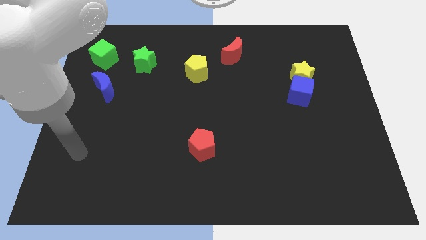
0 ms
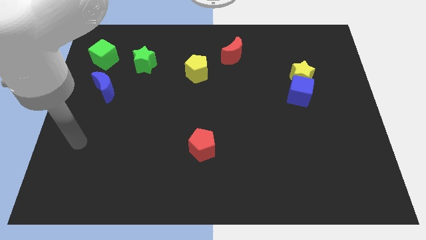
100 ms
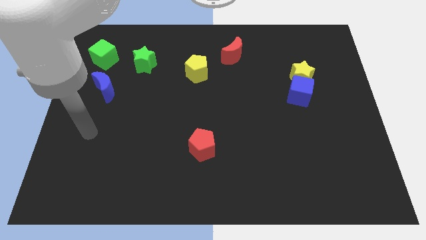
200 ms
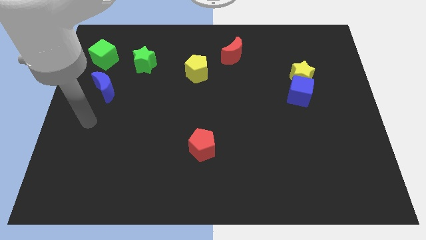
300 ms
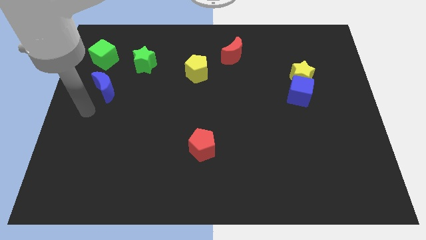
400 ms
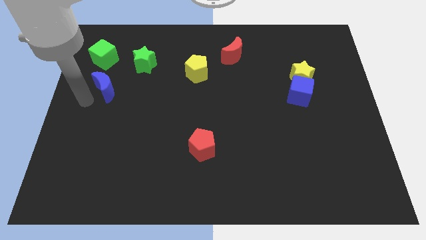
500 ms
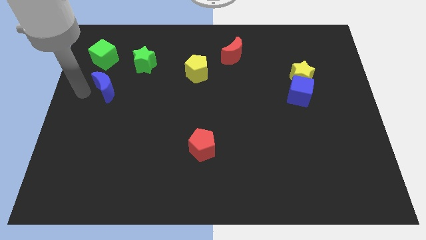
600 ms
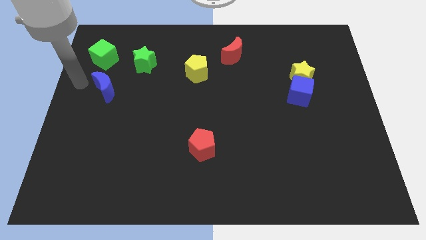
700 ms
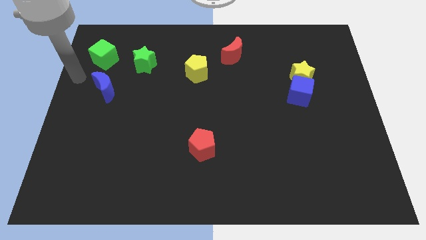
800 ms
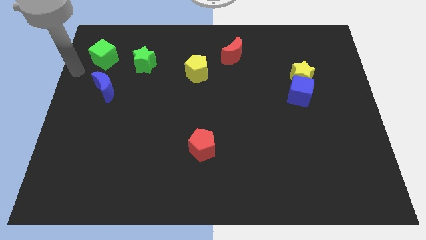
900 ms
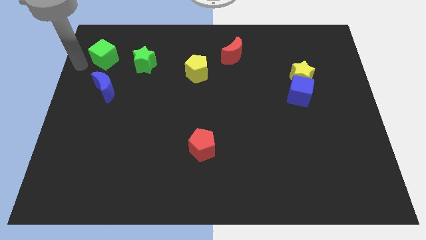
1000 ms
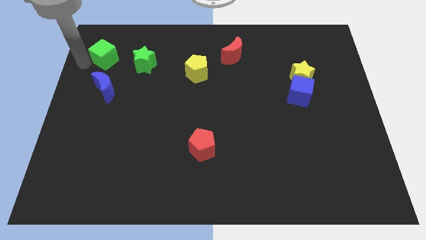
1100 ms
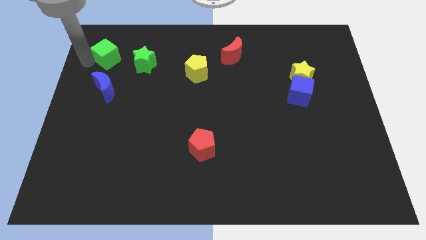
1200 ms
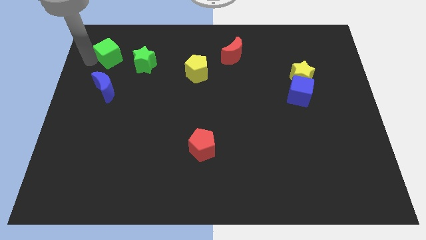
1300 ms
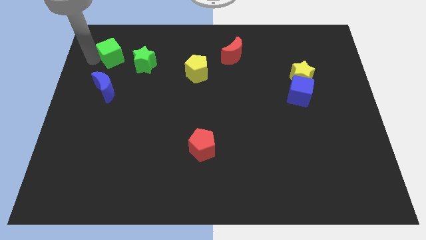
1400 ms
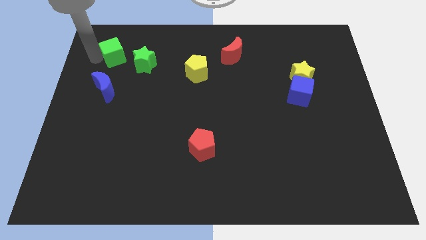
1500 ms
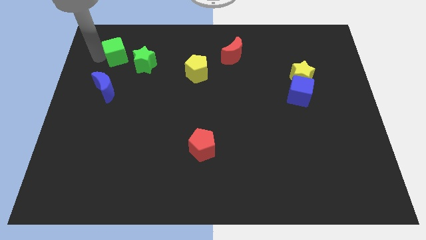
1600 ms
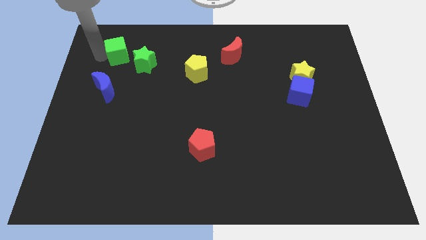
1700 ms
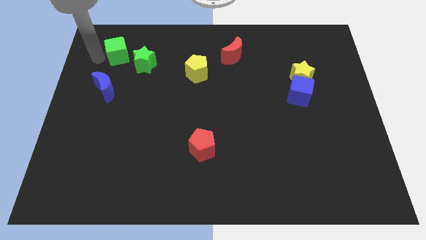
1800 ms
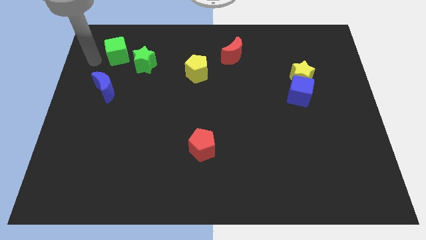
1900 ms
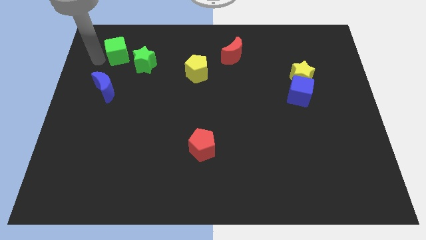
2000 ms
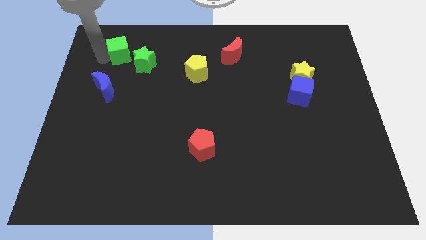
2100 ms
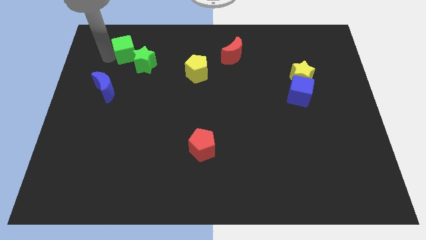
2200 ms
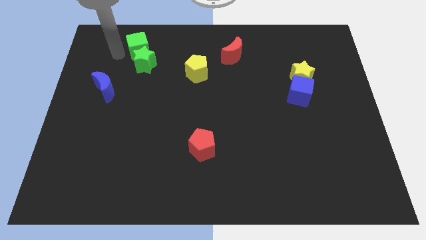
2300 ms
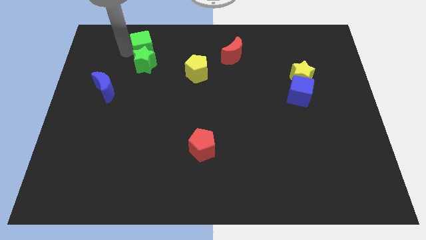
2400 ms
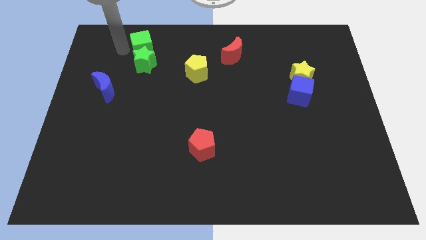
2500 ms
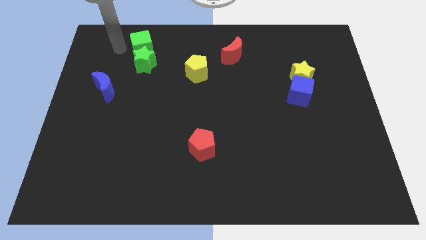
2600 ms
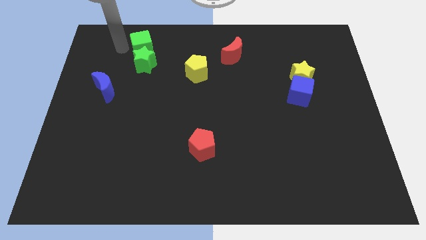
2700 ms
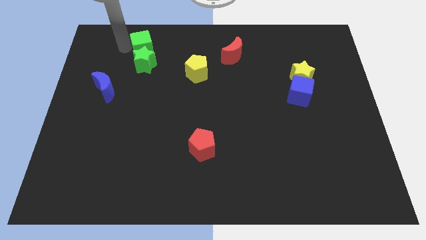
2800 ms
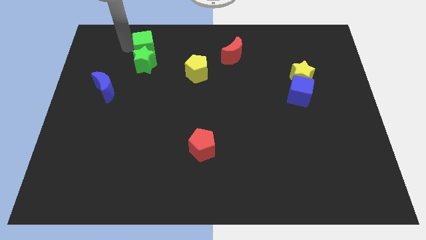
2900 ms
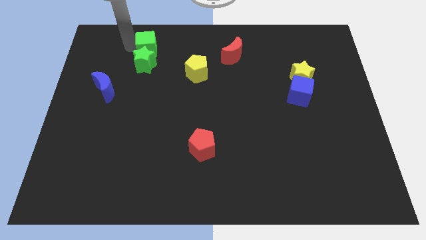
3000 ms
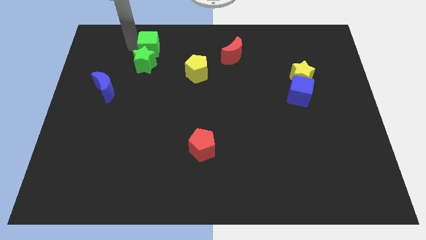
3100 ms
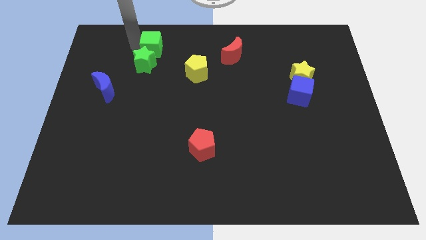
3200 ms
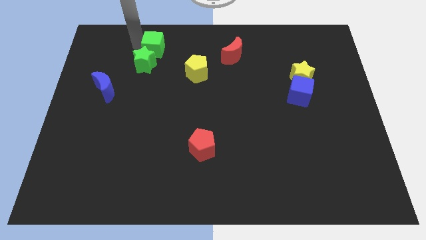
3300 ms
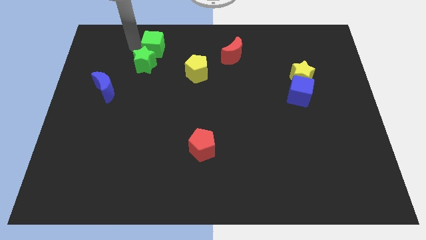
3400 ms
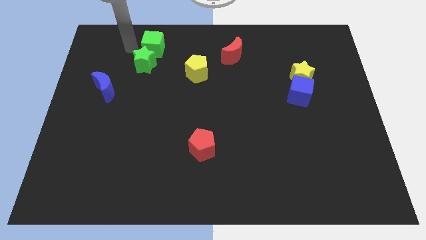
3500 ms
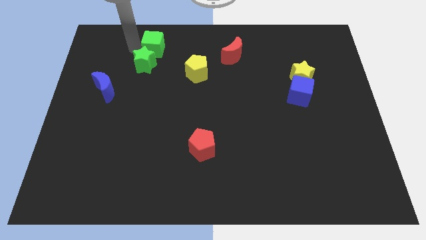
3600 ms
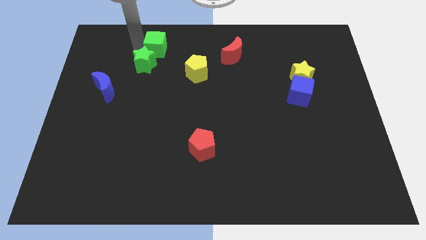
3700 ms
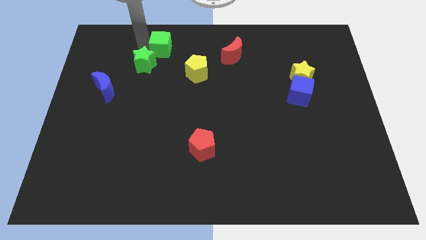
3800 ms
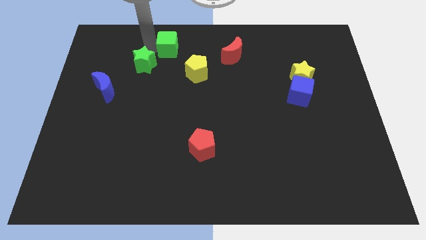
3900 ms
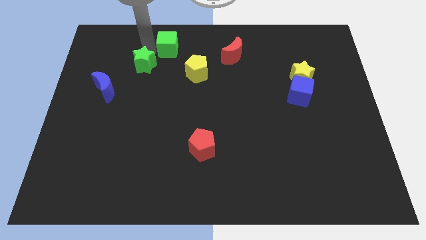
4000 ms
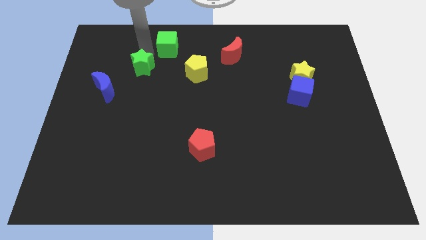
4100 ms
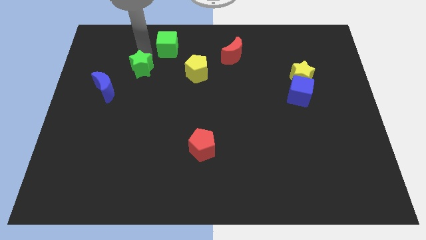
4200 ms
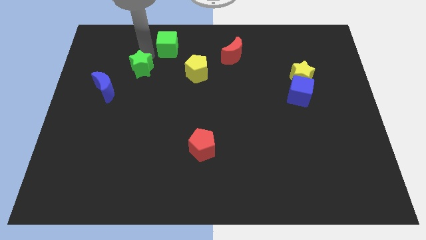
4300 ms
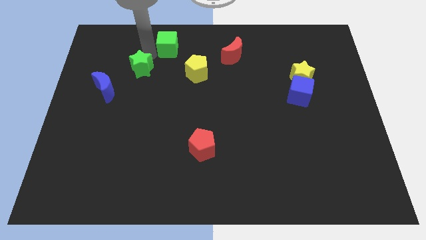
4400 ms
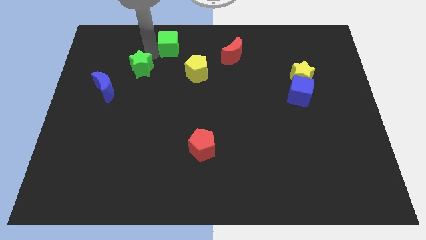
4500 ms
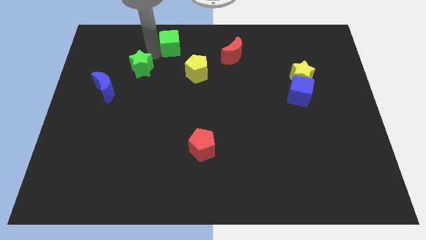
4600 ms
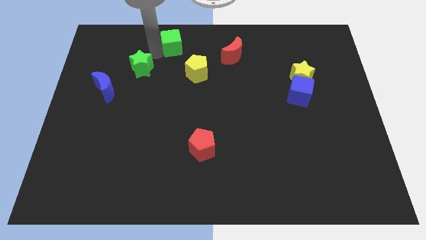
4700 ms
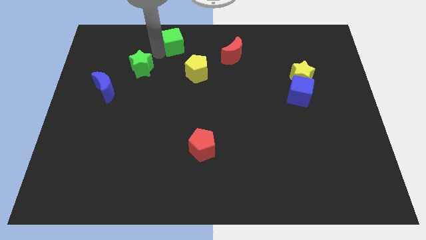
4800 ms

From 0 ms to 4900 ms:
slide the green cube to the top side

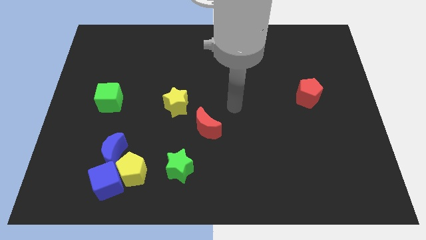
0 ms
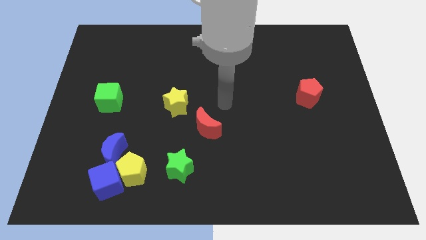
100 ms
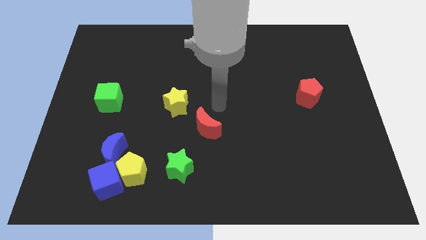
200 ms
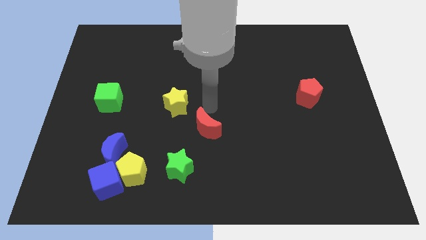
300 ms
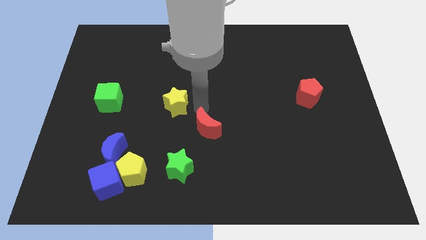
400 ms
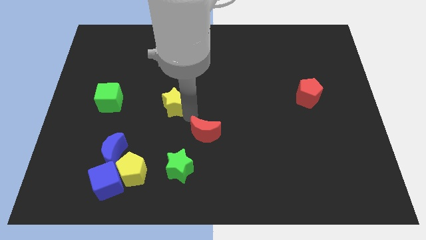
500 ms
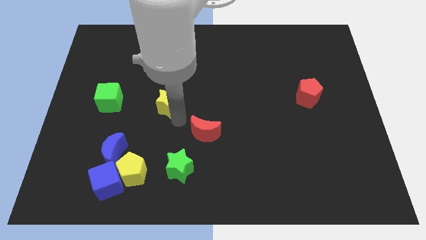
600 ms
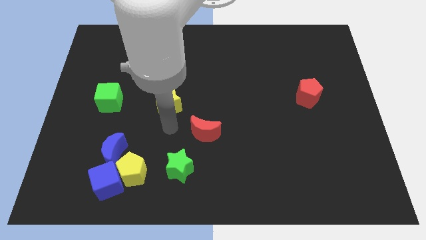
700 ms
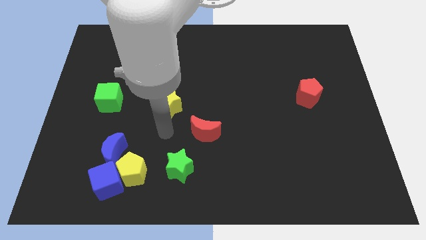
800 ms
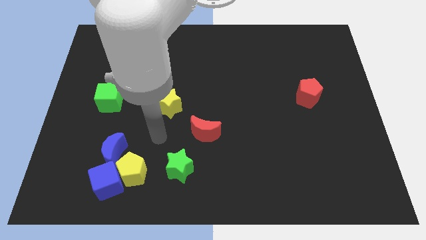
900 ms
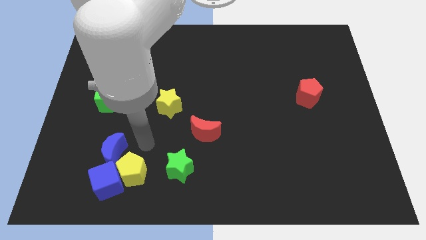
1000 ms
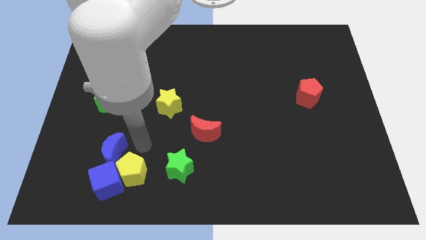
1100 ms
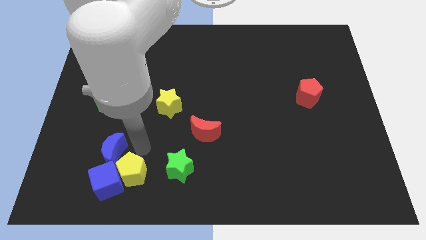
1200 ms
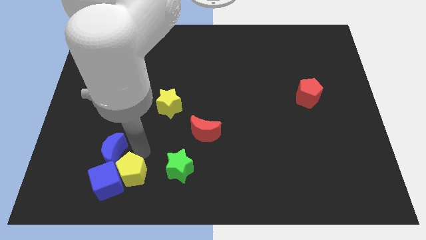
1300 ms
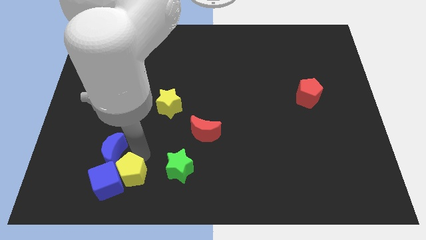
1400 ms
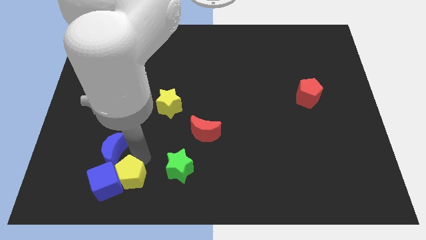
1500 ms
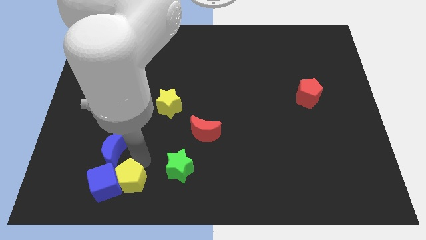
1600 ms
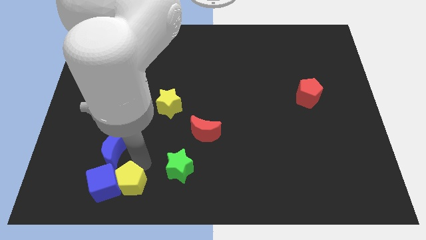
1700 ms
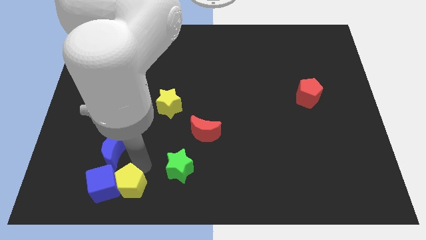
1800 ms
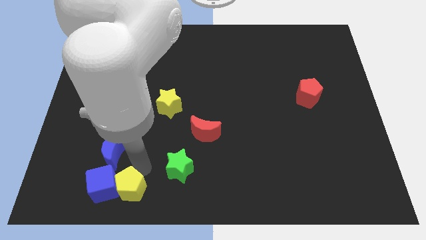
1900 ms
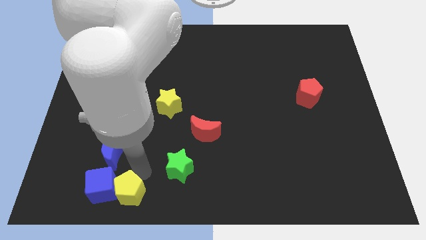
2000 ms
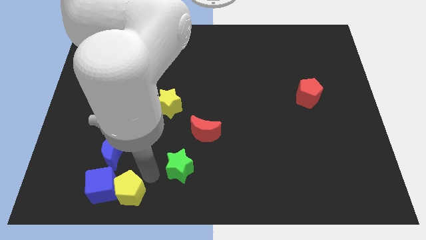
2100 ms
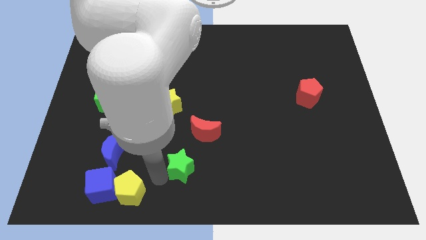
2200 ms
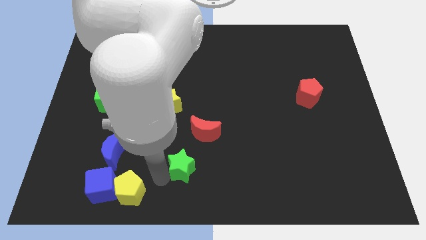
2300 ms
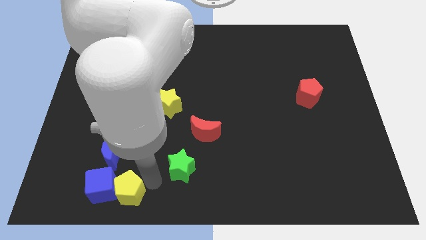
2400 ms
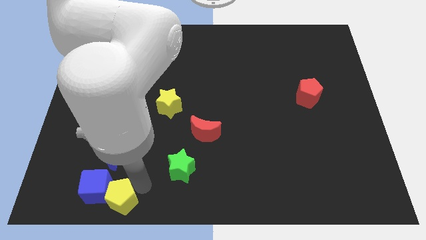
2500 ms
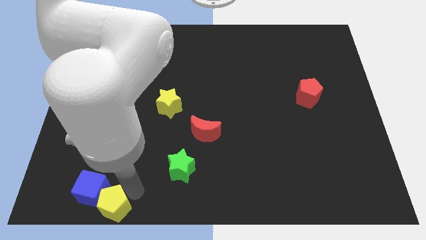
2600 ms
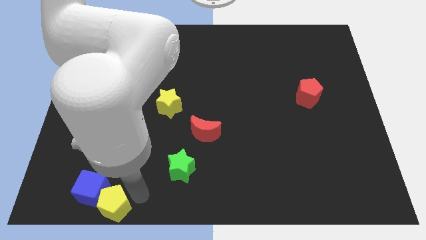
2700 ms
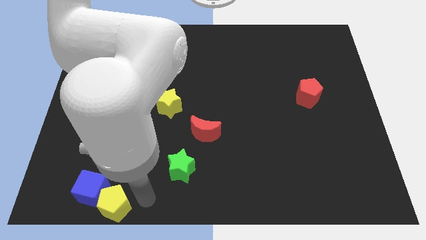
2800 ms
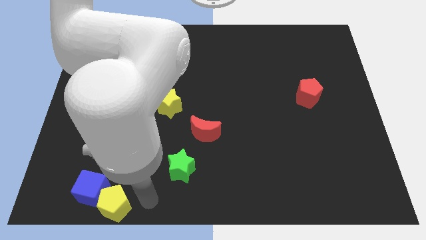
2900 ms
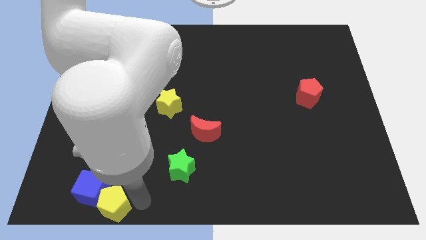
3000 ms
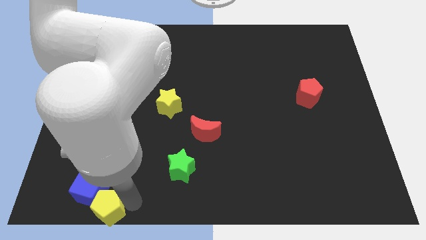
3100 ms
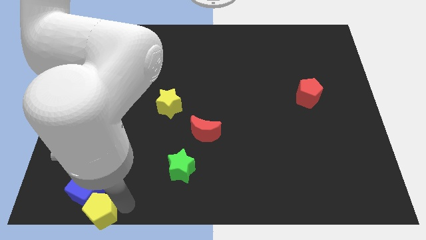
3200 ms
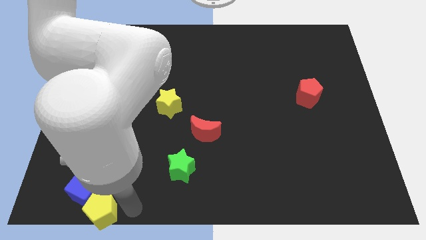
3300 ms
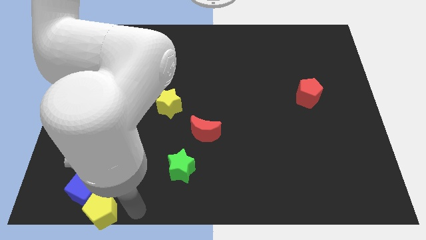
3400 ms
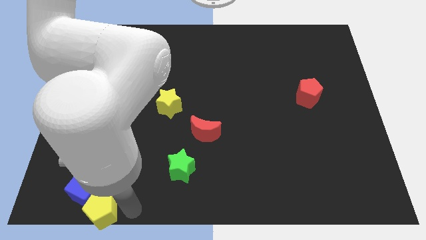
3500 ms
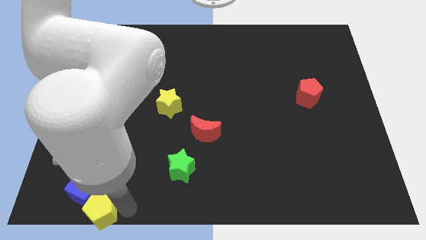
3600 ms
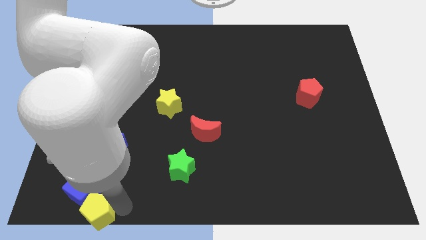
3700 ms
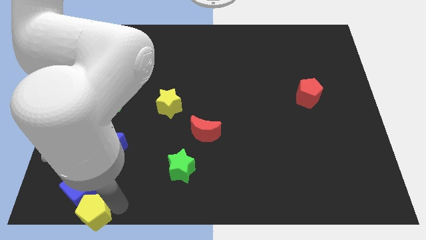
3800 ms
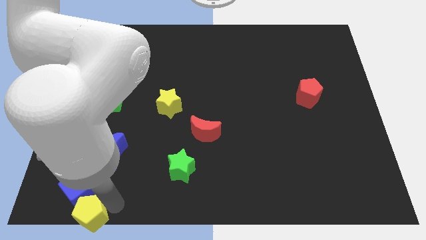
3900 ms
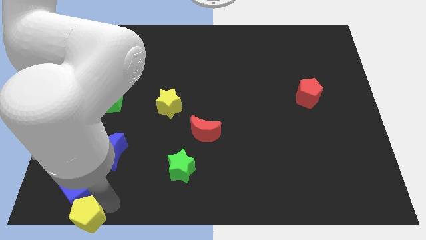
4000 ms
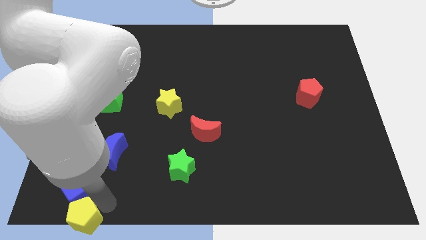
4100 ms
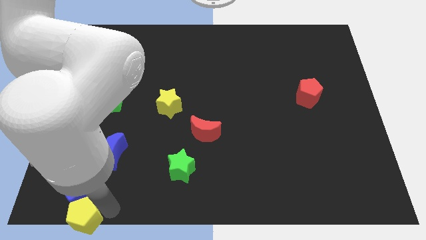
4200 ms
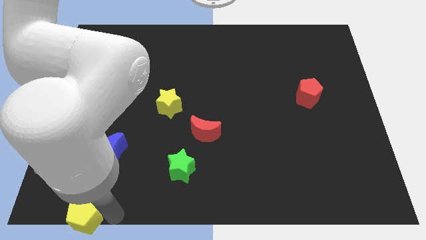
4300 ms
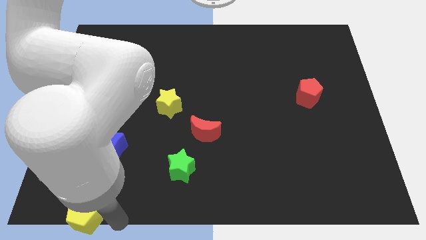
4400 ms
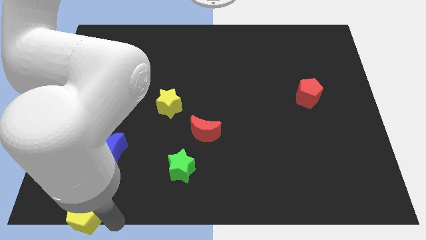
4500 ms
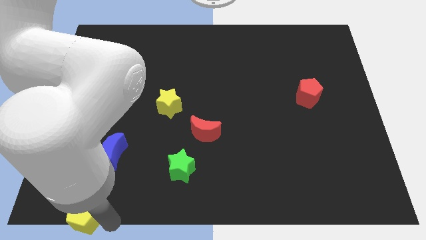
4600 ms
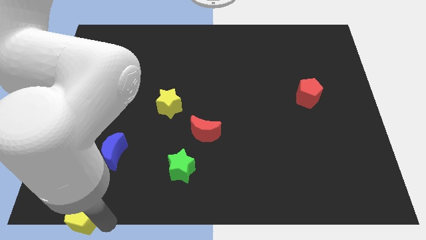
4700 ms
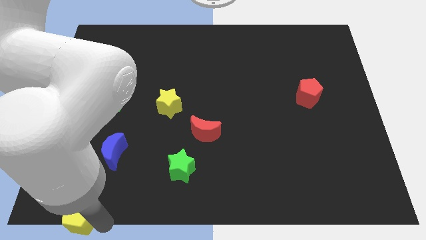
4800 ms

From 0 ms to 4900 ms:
push the yellow pentagon to the lower left corner
